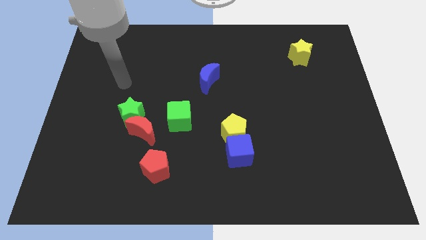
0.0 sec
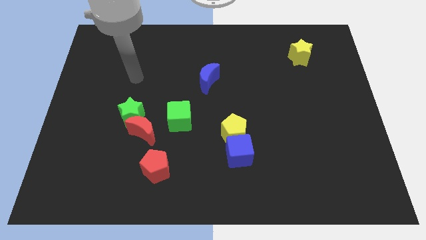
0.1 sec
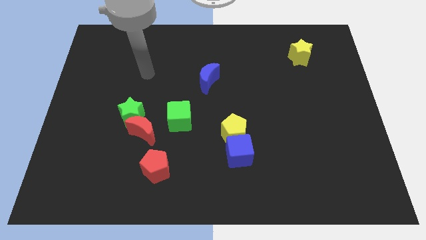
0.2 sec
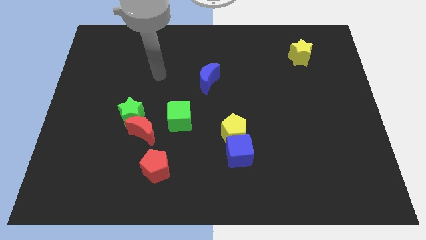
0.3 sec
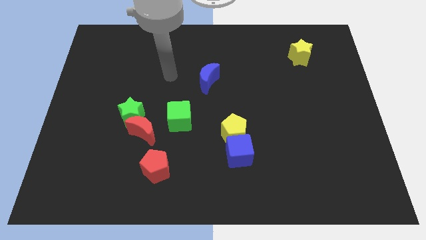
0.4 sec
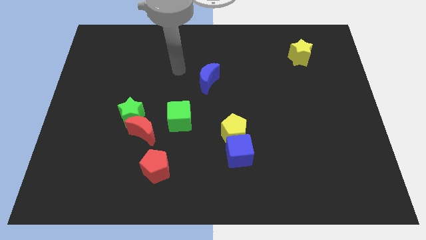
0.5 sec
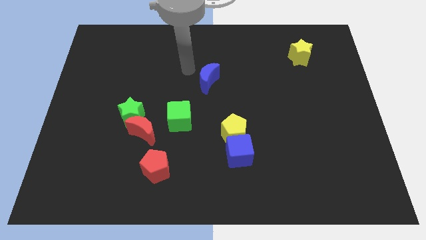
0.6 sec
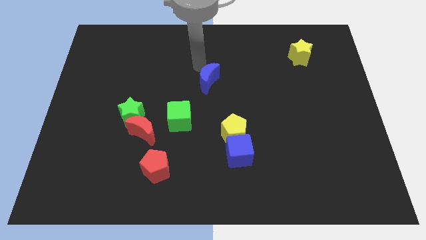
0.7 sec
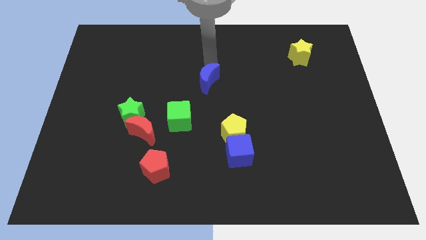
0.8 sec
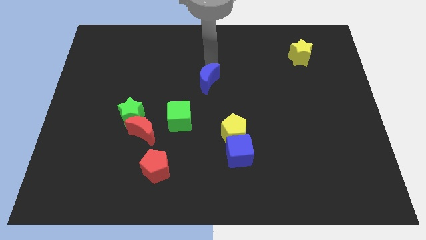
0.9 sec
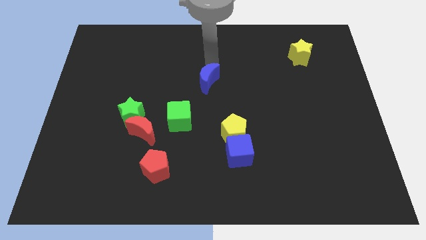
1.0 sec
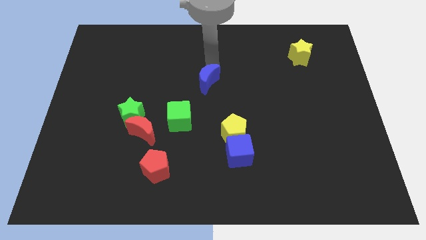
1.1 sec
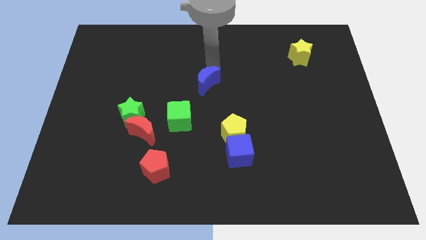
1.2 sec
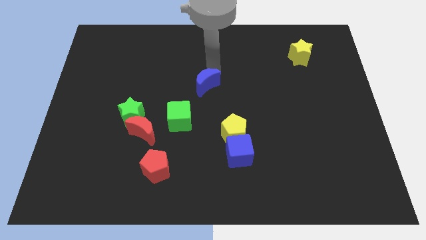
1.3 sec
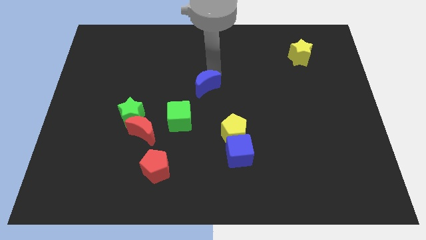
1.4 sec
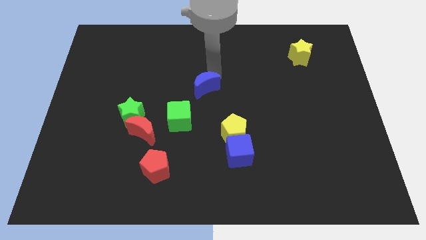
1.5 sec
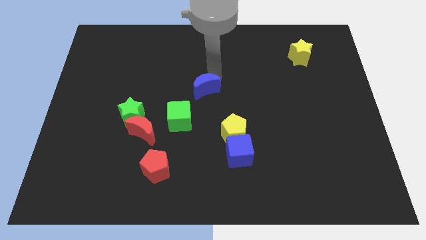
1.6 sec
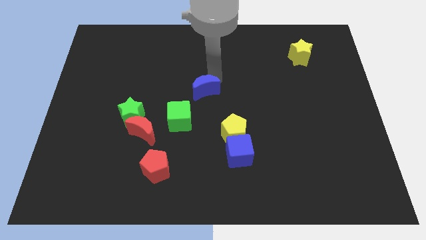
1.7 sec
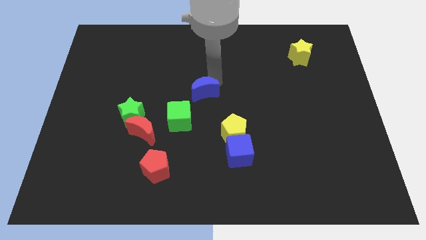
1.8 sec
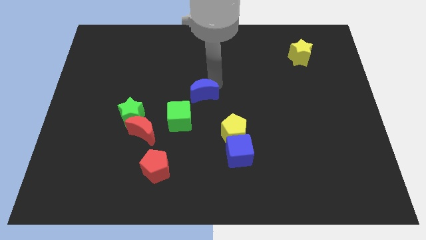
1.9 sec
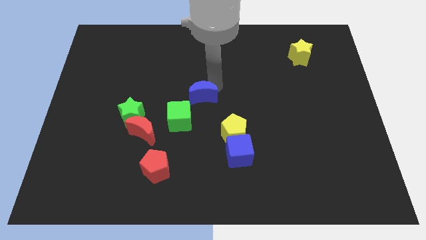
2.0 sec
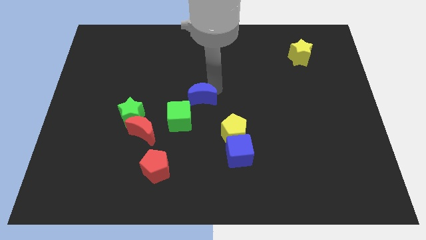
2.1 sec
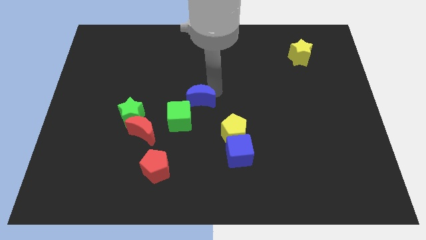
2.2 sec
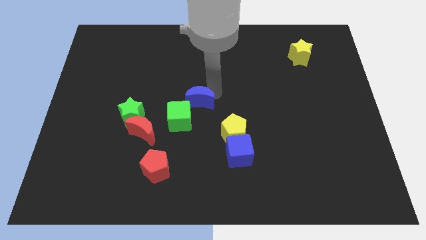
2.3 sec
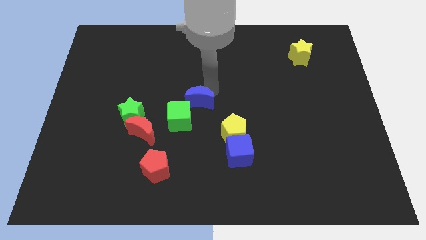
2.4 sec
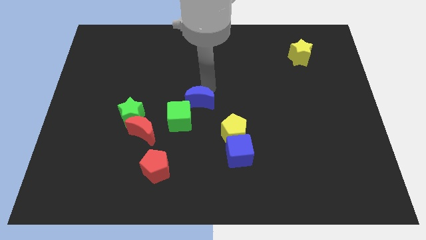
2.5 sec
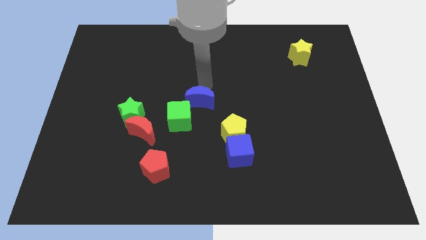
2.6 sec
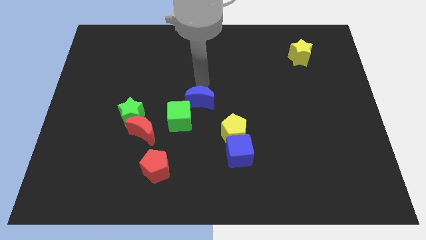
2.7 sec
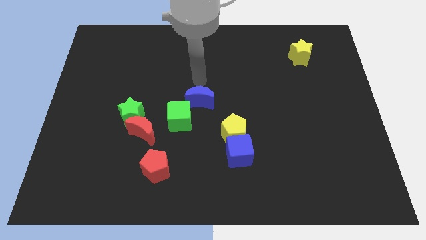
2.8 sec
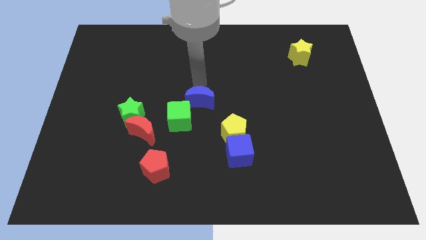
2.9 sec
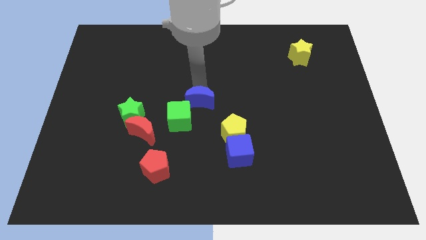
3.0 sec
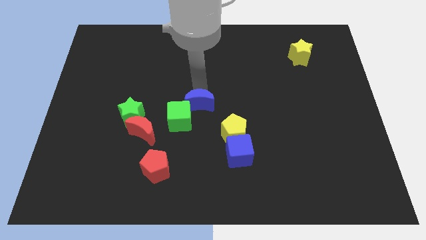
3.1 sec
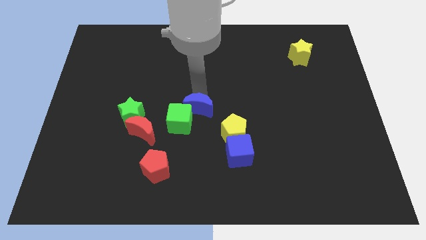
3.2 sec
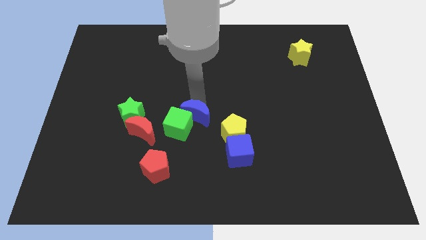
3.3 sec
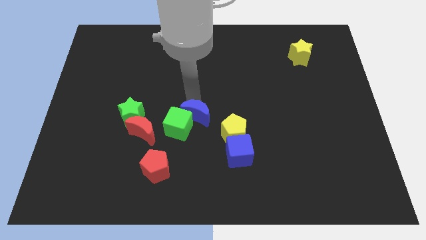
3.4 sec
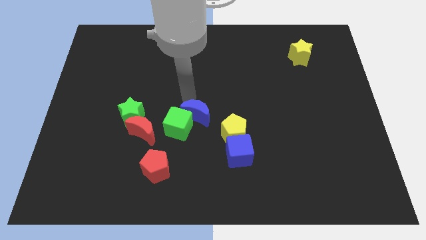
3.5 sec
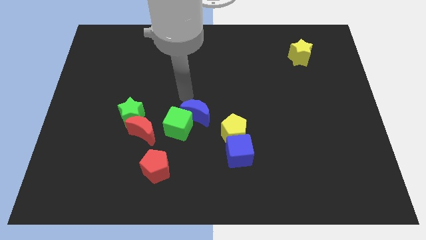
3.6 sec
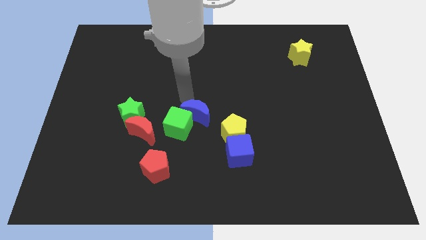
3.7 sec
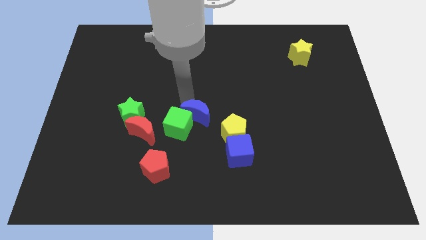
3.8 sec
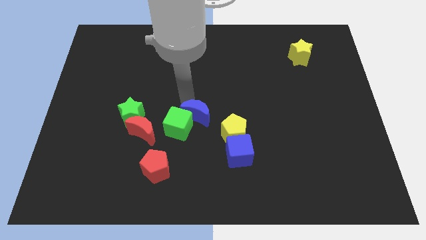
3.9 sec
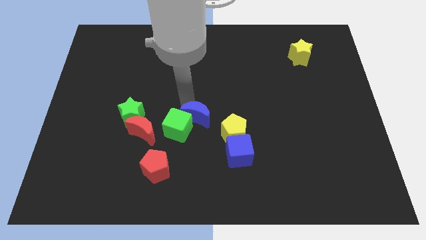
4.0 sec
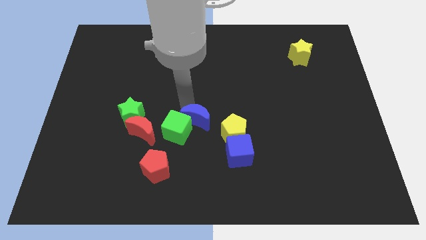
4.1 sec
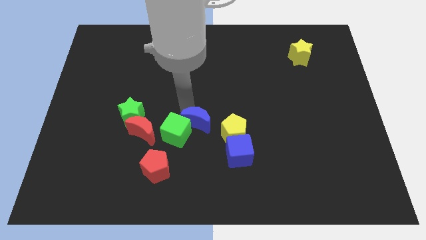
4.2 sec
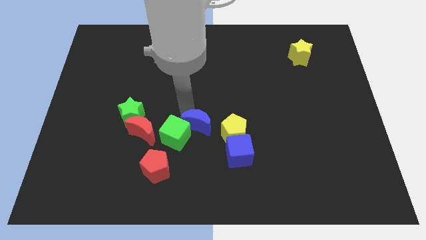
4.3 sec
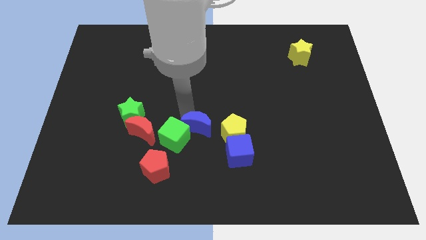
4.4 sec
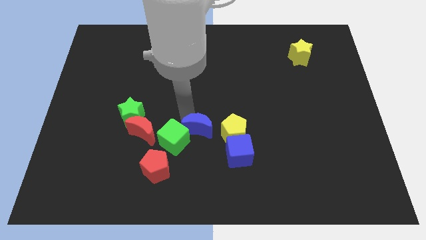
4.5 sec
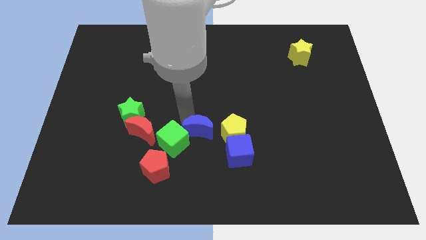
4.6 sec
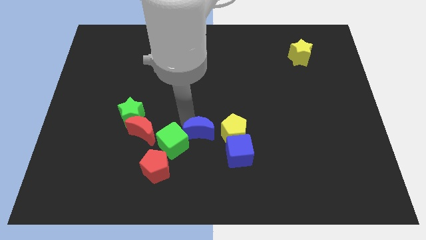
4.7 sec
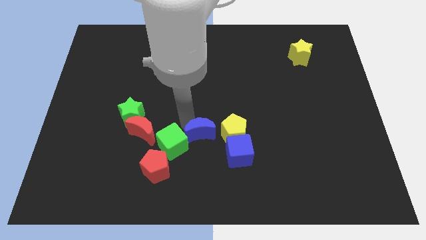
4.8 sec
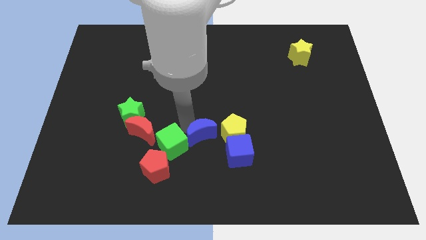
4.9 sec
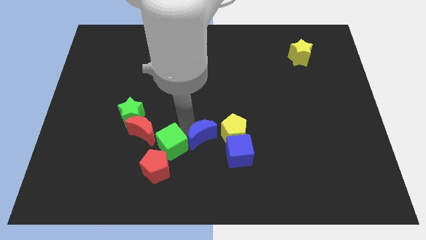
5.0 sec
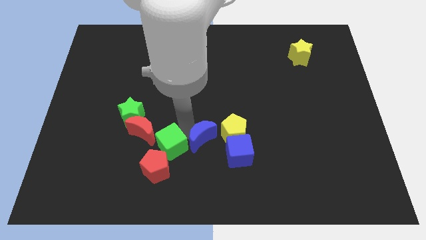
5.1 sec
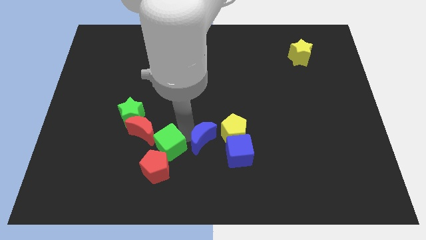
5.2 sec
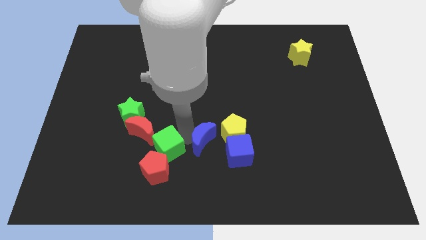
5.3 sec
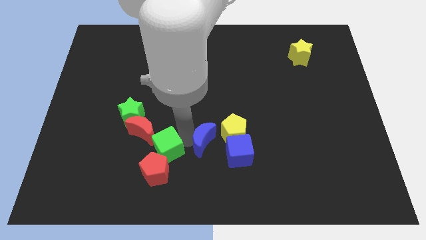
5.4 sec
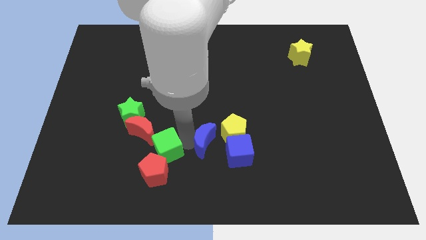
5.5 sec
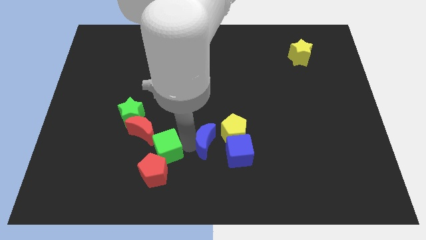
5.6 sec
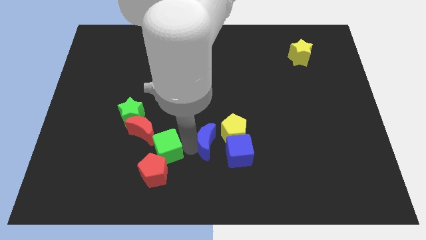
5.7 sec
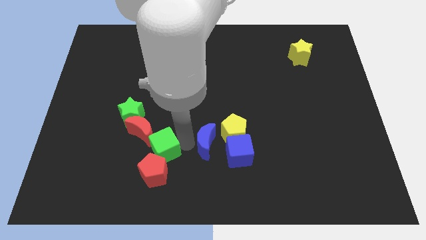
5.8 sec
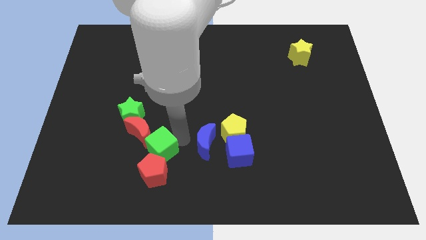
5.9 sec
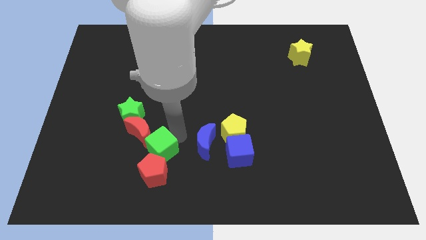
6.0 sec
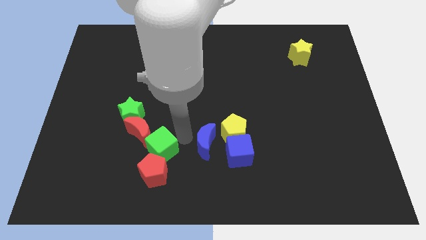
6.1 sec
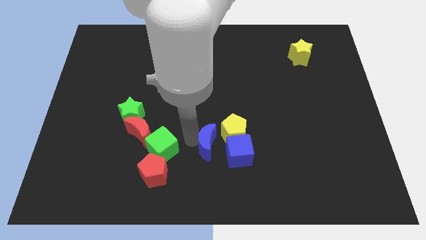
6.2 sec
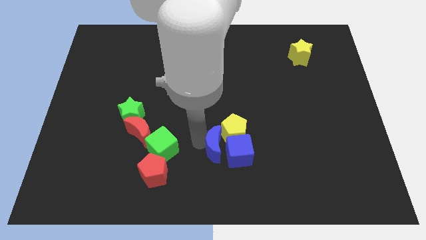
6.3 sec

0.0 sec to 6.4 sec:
slide the blue moon to the blue cube

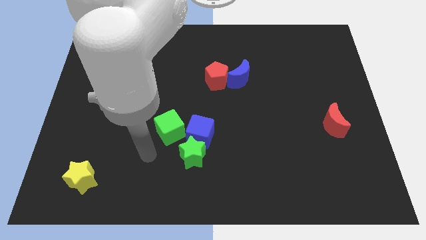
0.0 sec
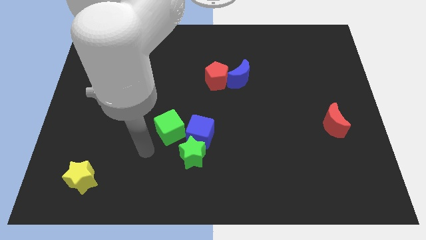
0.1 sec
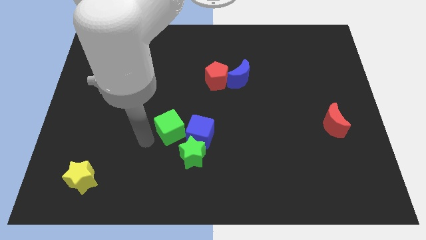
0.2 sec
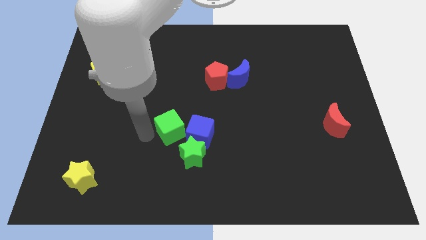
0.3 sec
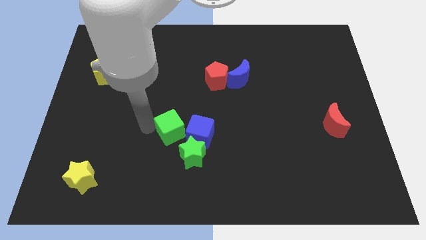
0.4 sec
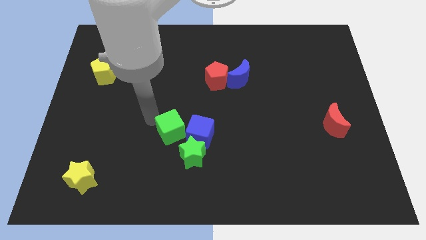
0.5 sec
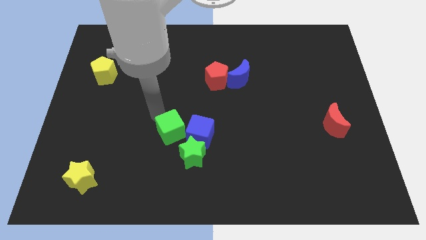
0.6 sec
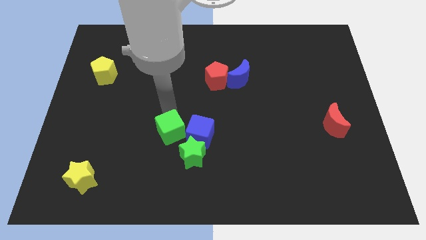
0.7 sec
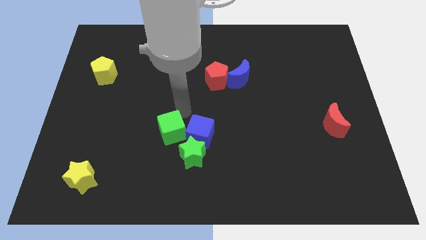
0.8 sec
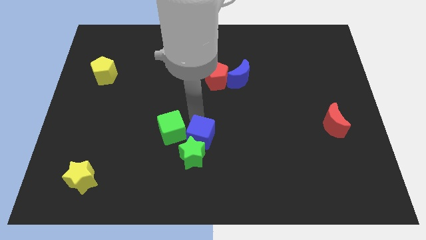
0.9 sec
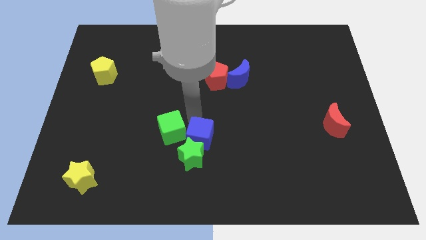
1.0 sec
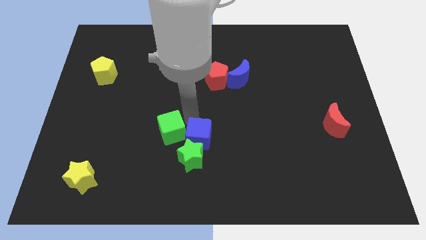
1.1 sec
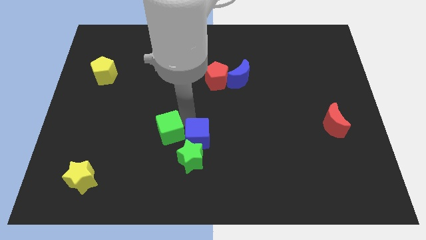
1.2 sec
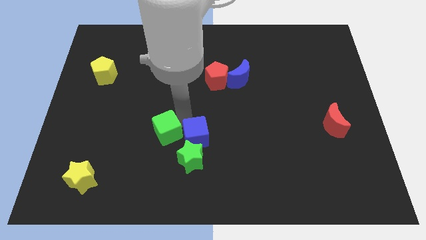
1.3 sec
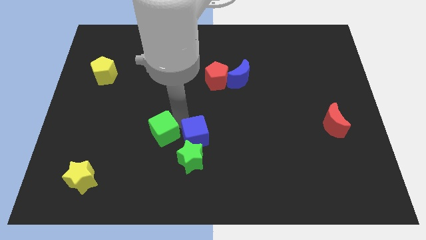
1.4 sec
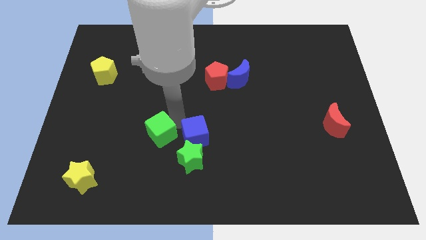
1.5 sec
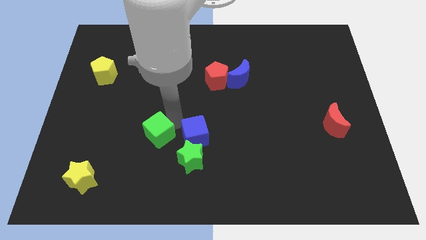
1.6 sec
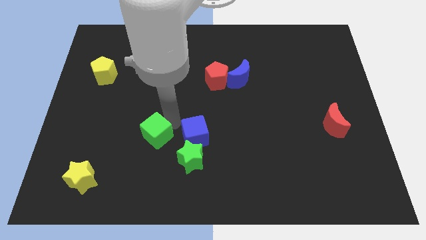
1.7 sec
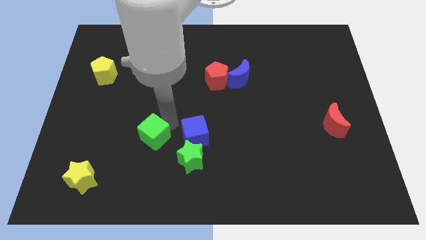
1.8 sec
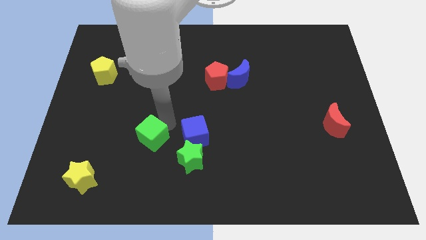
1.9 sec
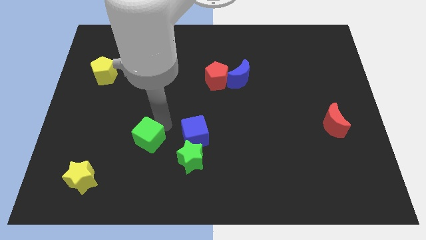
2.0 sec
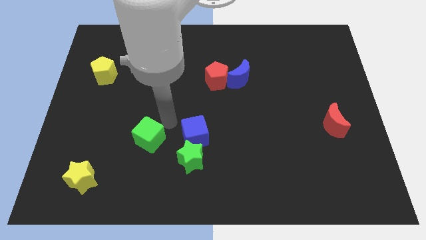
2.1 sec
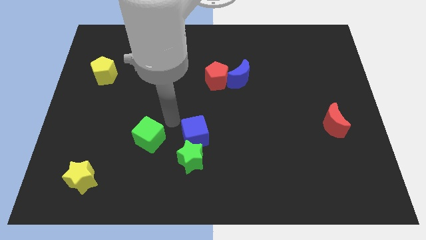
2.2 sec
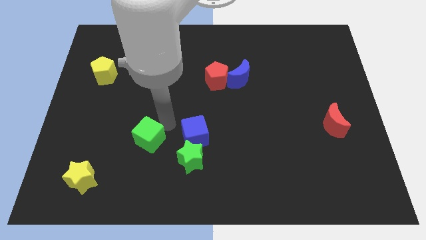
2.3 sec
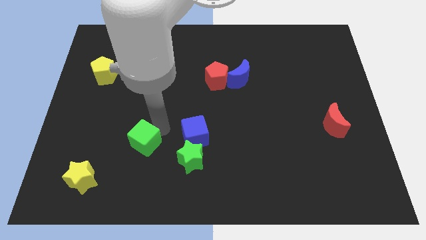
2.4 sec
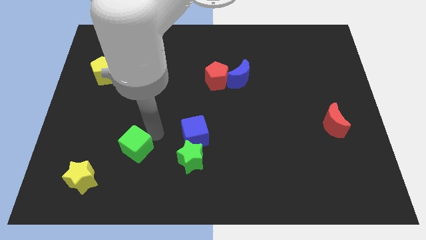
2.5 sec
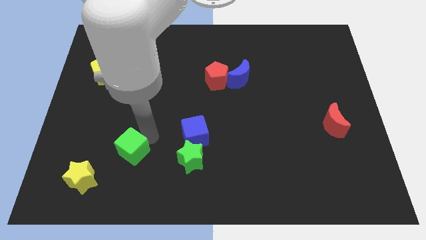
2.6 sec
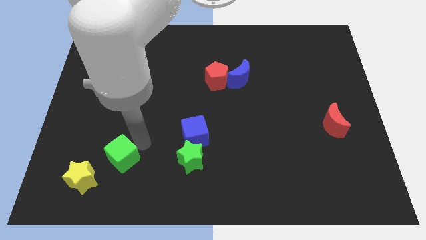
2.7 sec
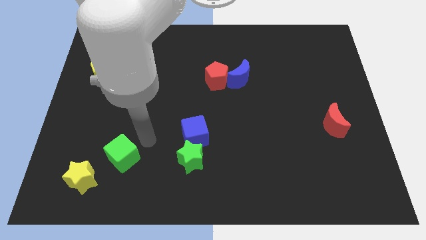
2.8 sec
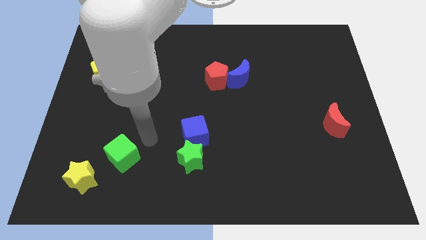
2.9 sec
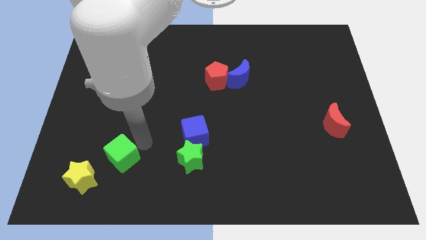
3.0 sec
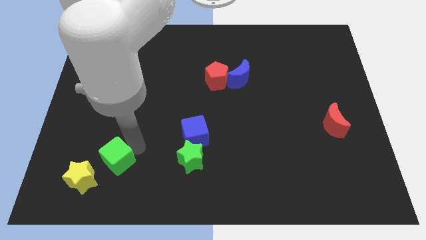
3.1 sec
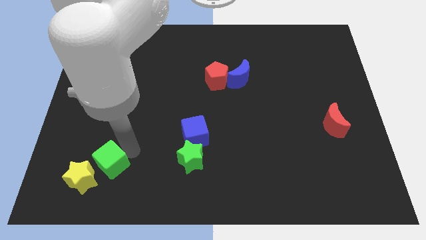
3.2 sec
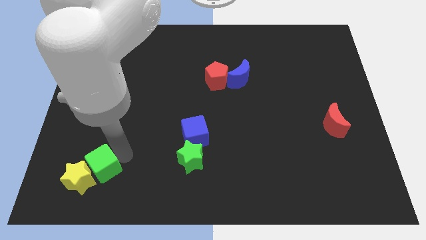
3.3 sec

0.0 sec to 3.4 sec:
push the green cube to the yellow star
